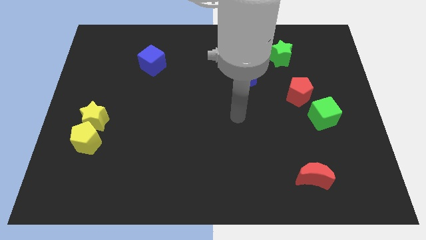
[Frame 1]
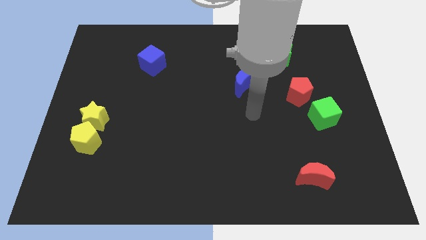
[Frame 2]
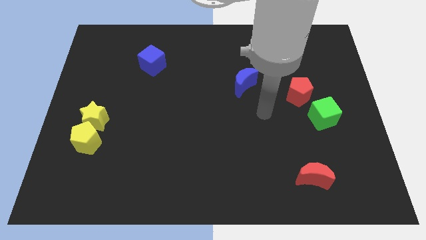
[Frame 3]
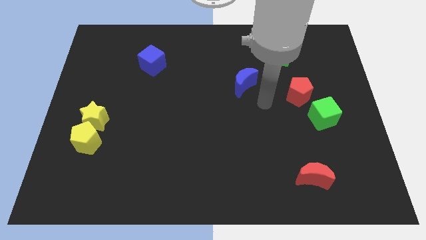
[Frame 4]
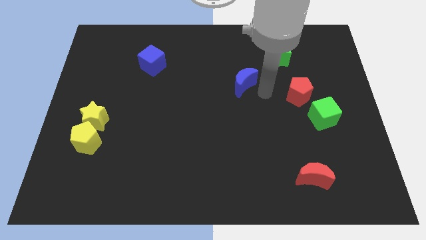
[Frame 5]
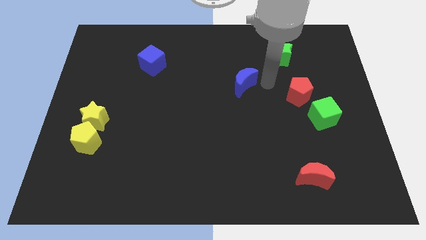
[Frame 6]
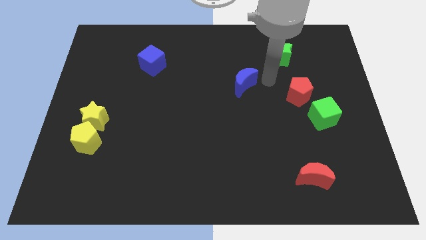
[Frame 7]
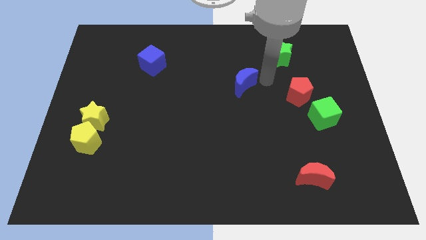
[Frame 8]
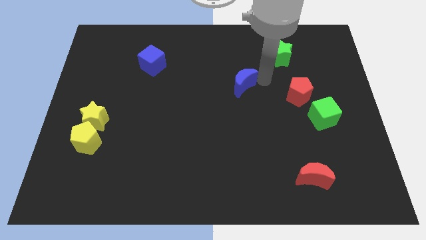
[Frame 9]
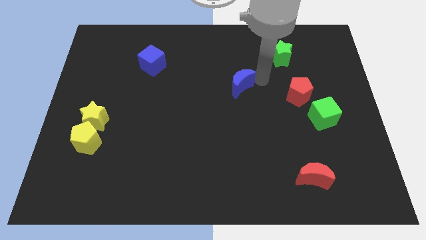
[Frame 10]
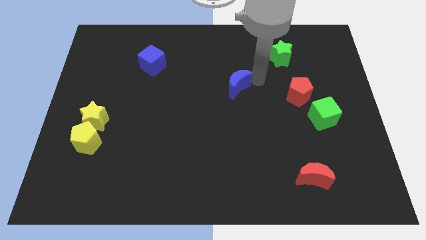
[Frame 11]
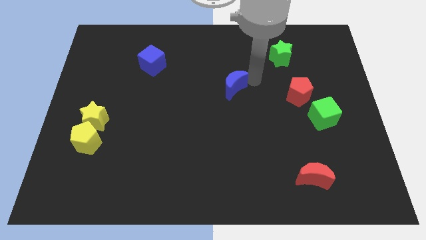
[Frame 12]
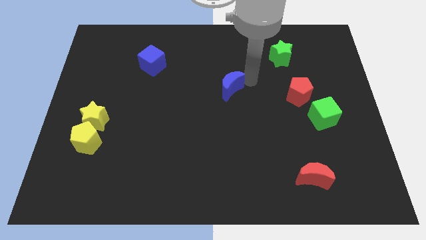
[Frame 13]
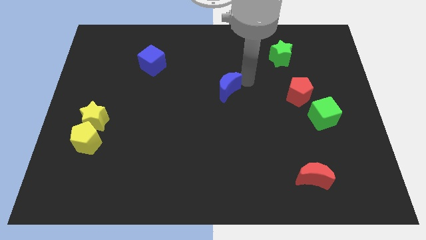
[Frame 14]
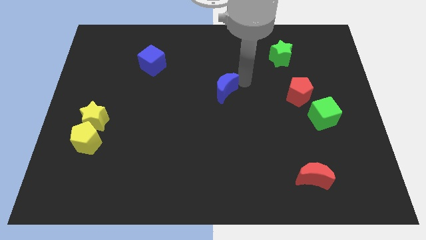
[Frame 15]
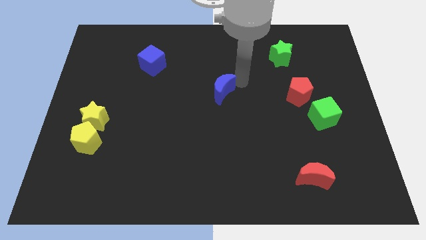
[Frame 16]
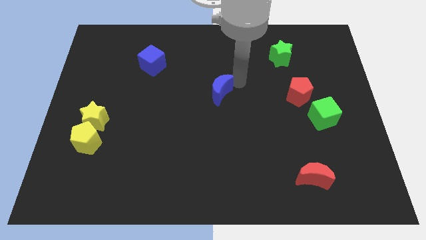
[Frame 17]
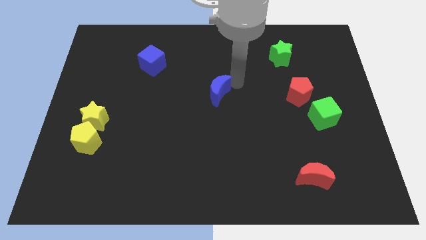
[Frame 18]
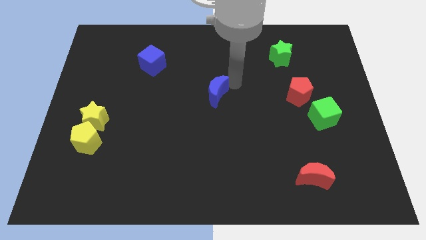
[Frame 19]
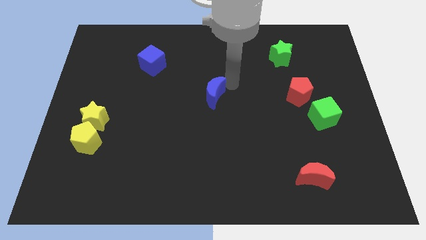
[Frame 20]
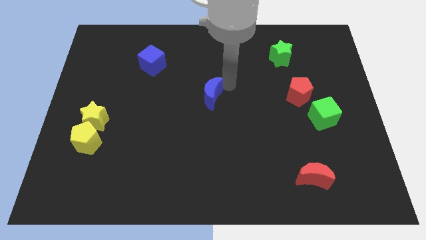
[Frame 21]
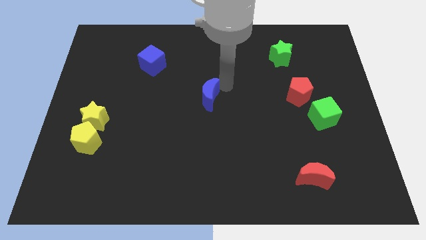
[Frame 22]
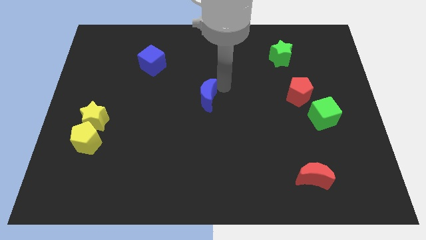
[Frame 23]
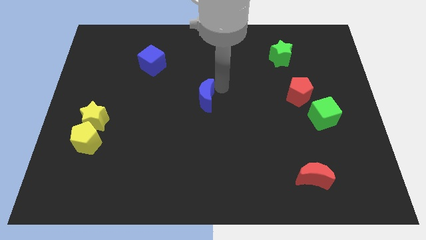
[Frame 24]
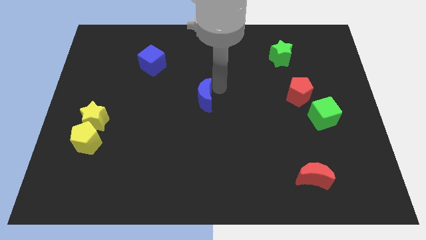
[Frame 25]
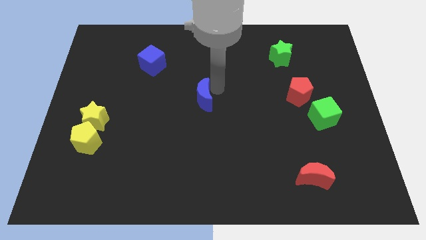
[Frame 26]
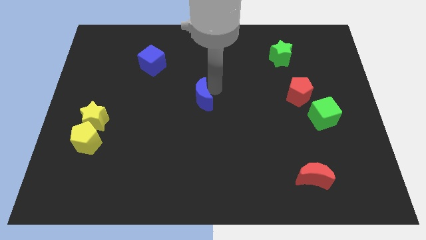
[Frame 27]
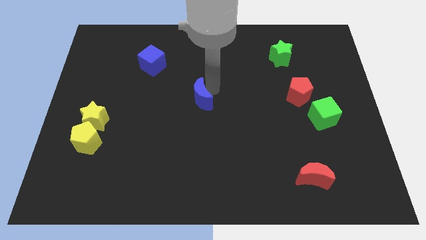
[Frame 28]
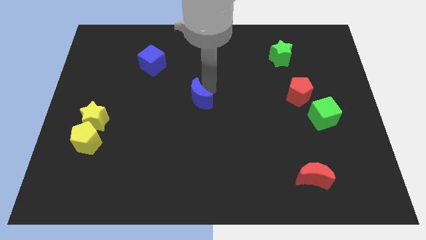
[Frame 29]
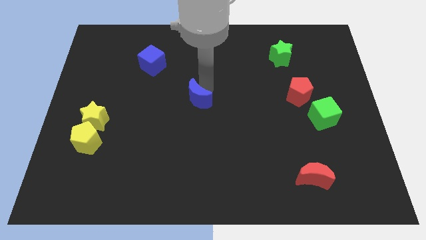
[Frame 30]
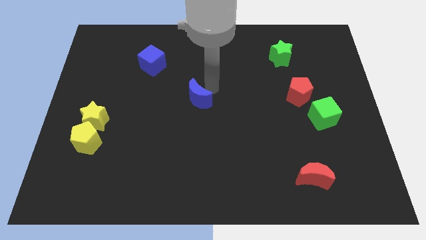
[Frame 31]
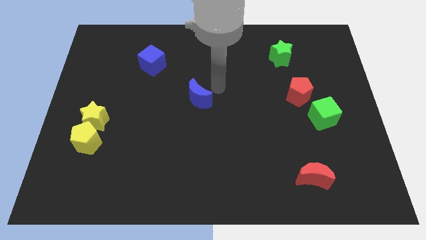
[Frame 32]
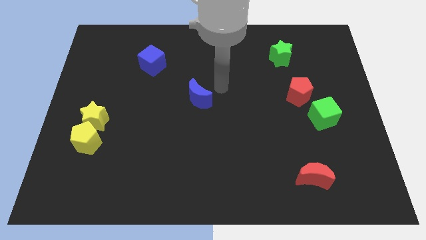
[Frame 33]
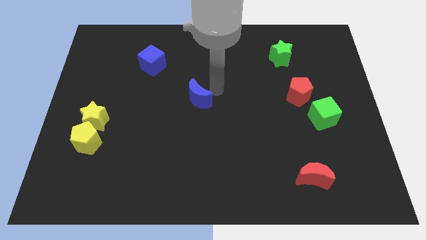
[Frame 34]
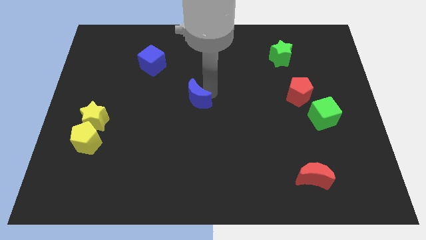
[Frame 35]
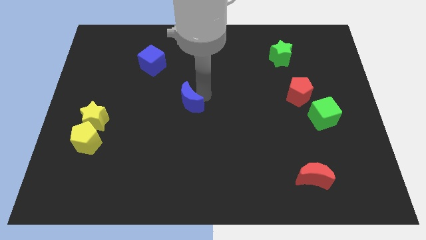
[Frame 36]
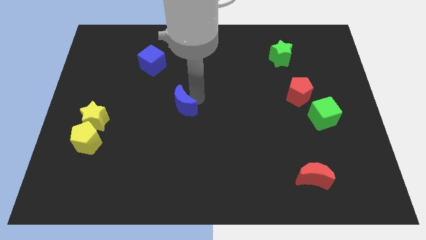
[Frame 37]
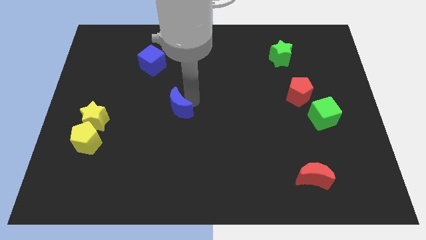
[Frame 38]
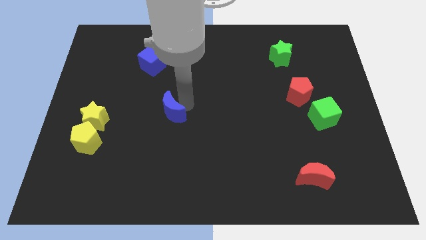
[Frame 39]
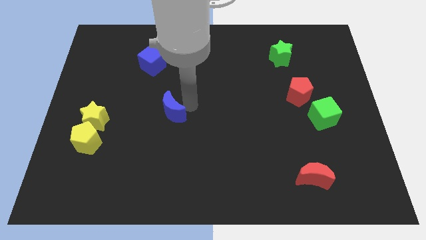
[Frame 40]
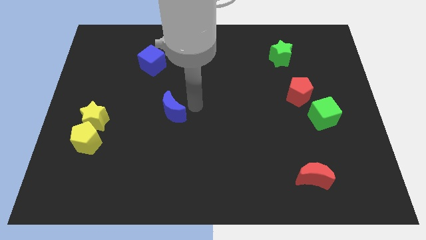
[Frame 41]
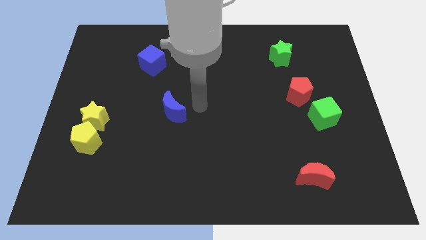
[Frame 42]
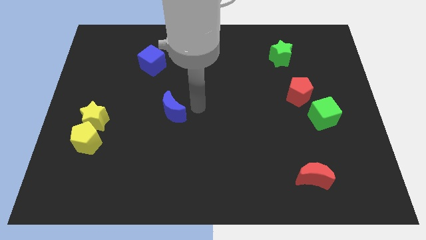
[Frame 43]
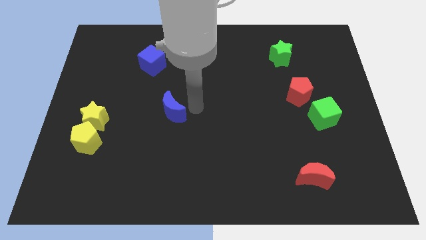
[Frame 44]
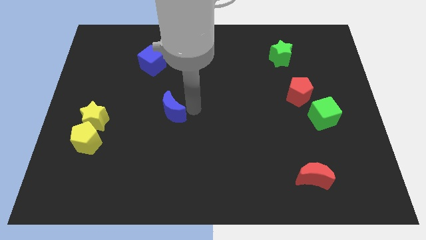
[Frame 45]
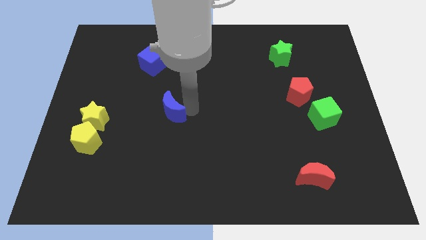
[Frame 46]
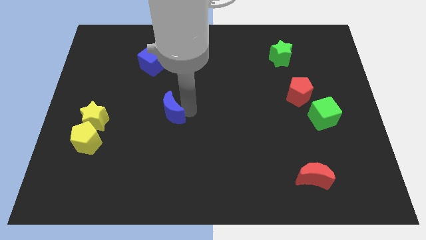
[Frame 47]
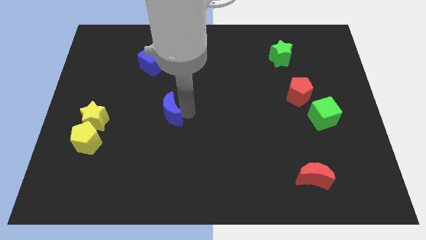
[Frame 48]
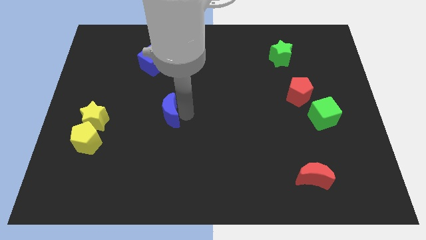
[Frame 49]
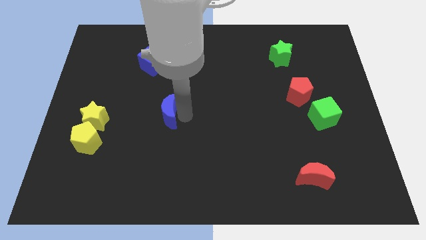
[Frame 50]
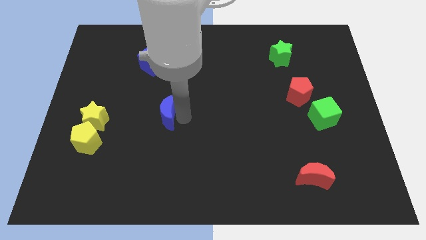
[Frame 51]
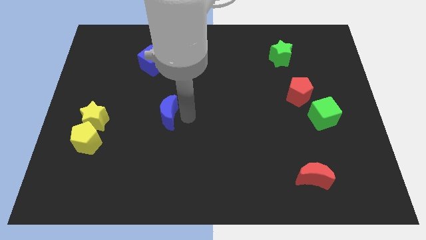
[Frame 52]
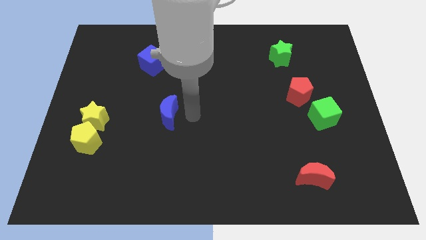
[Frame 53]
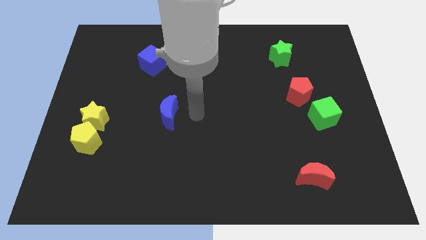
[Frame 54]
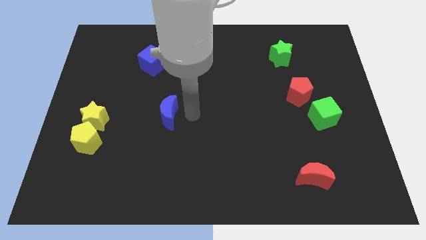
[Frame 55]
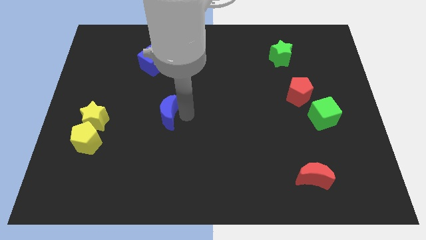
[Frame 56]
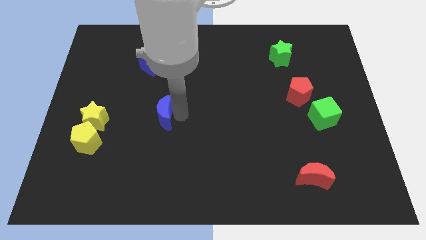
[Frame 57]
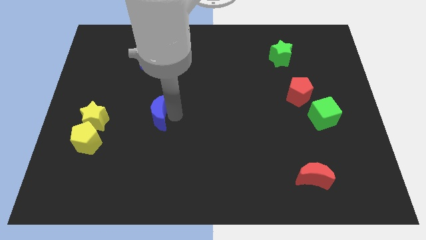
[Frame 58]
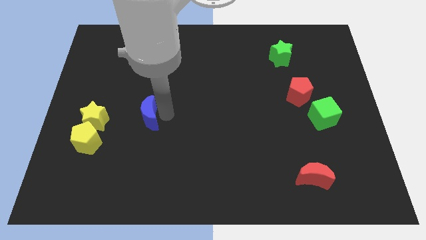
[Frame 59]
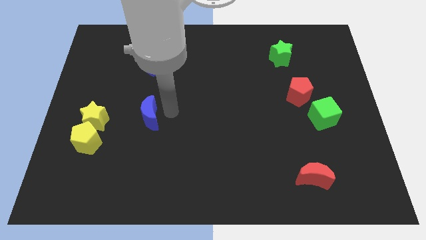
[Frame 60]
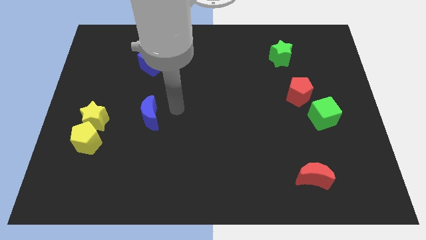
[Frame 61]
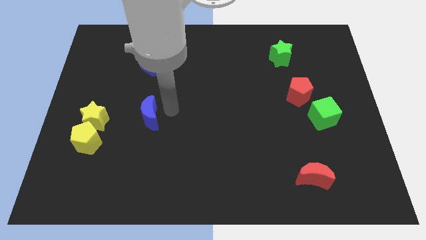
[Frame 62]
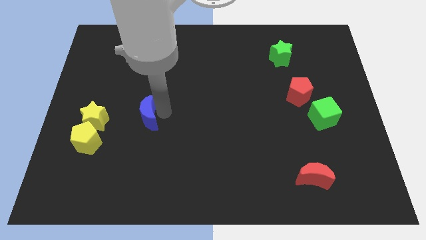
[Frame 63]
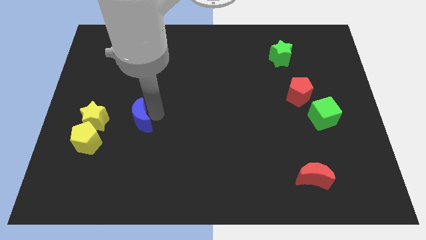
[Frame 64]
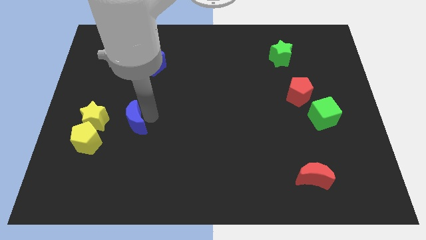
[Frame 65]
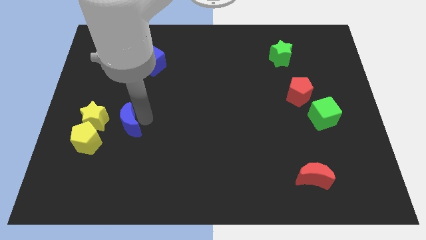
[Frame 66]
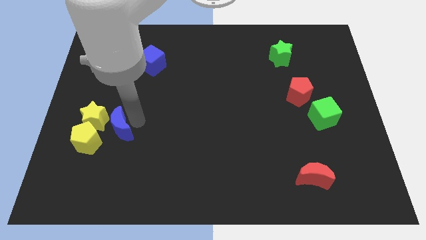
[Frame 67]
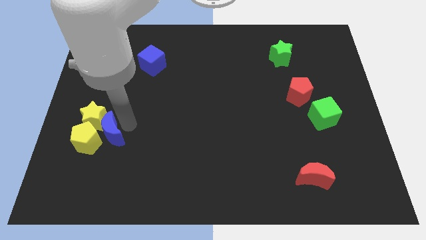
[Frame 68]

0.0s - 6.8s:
put the blue moon close to the yellow pentagon
